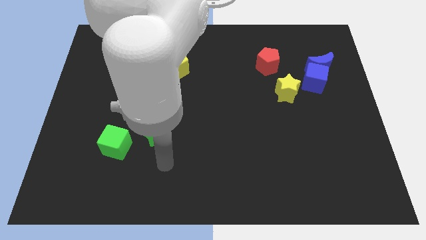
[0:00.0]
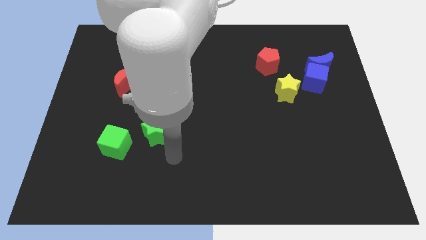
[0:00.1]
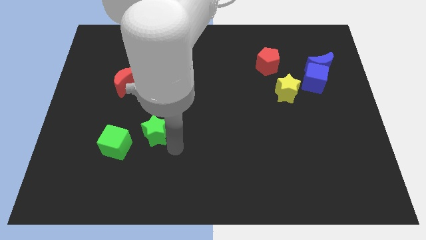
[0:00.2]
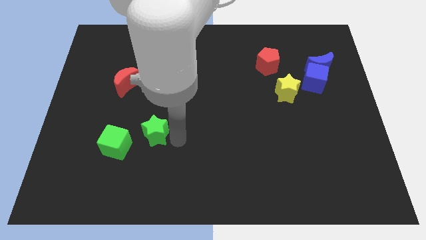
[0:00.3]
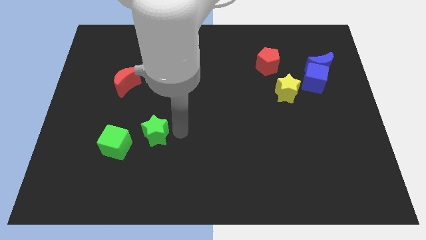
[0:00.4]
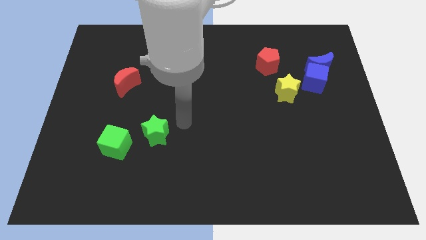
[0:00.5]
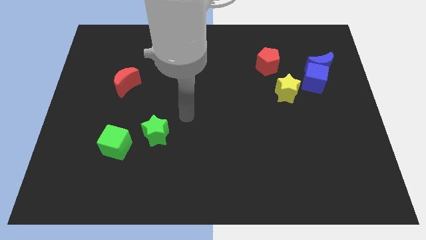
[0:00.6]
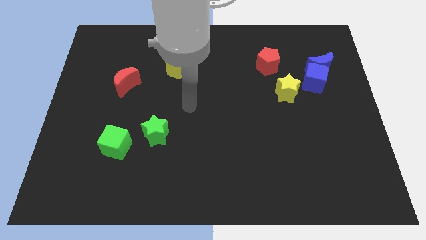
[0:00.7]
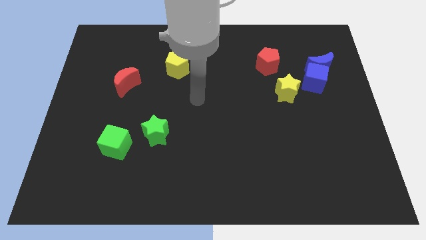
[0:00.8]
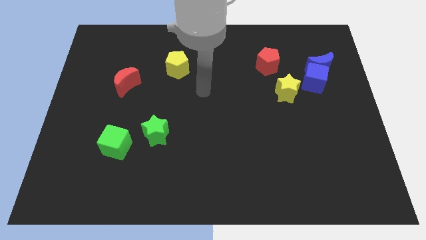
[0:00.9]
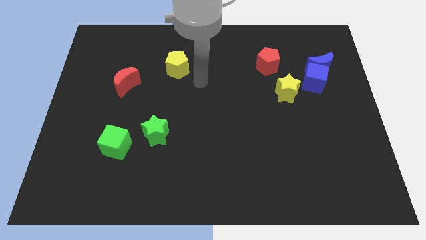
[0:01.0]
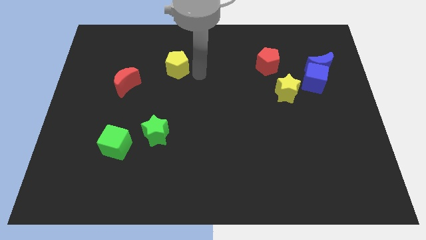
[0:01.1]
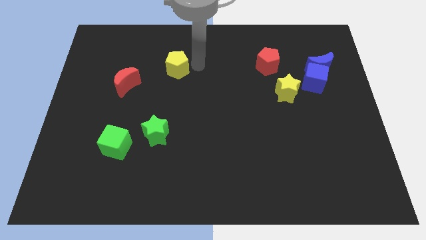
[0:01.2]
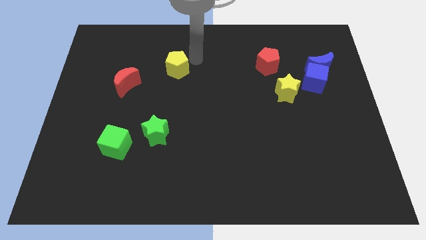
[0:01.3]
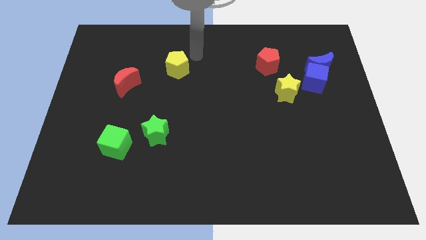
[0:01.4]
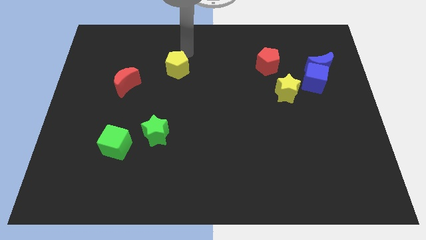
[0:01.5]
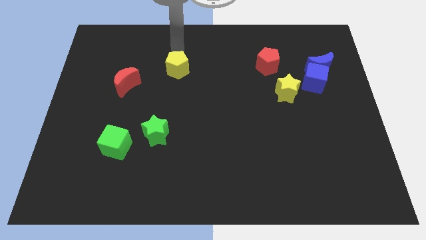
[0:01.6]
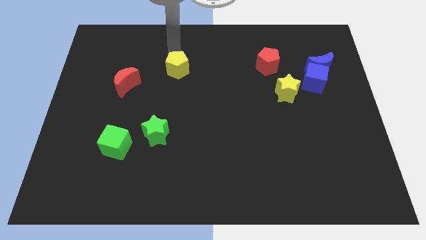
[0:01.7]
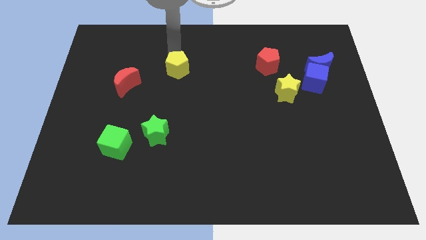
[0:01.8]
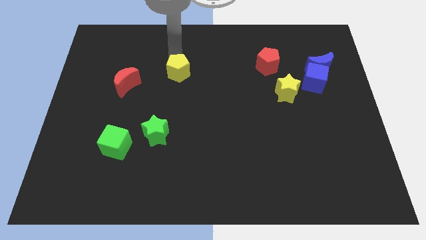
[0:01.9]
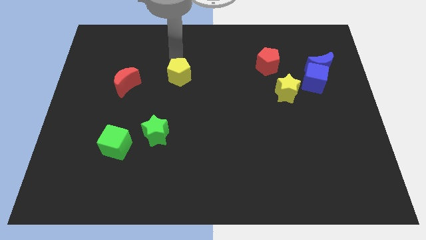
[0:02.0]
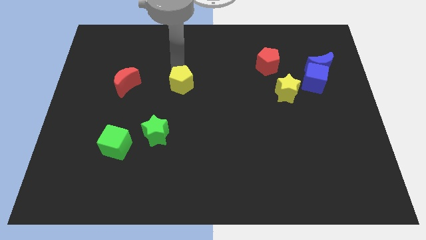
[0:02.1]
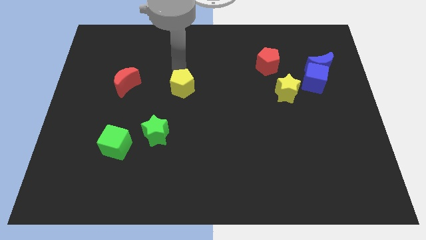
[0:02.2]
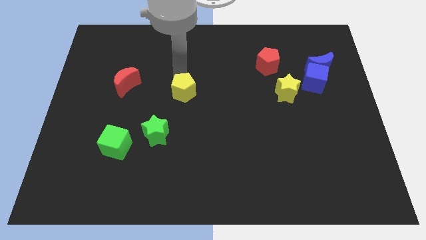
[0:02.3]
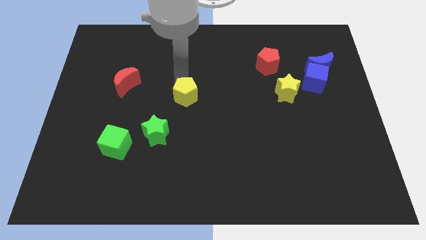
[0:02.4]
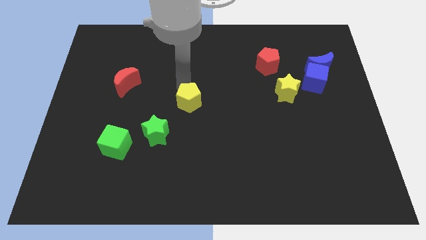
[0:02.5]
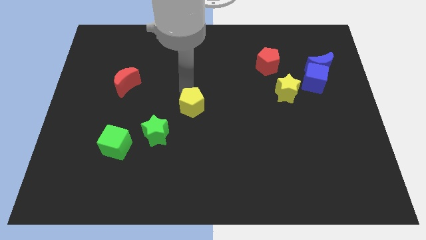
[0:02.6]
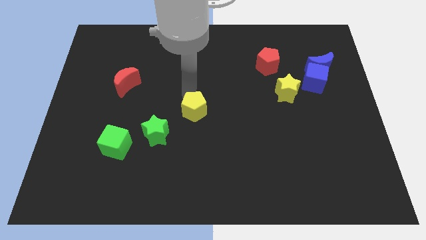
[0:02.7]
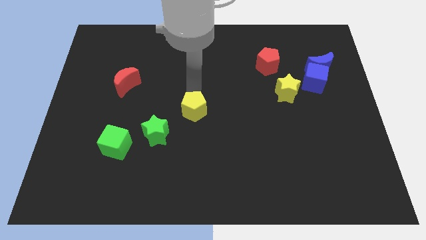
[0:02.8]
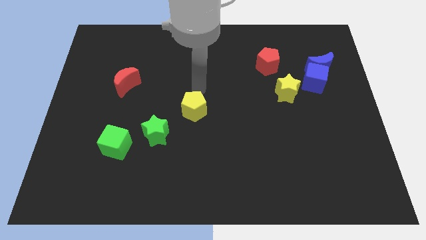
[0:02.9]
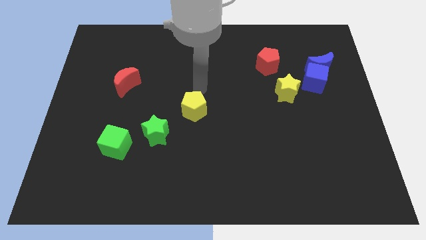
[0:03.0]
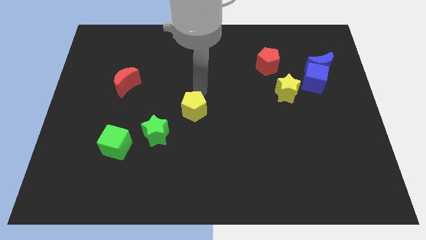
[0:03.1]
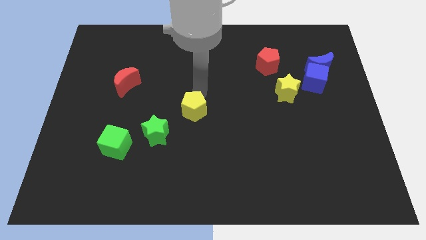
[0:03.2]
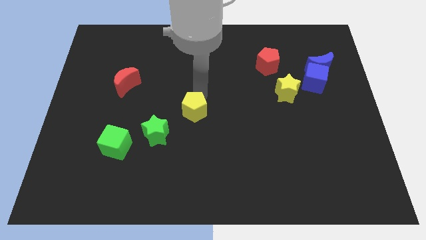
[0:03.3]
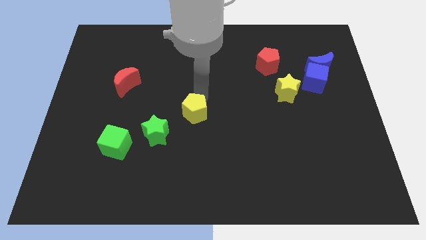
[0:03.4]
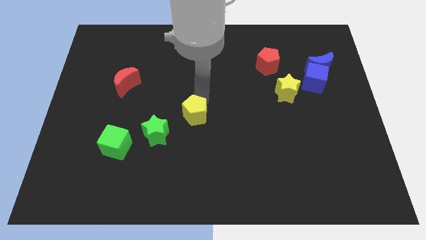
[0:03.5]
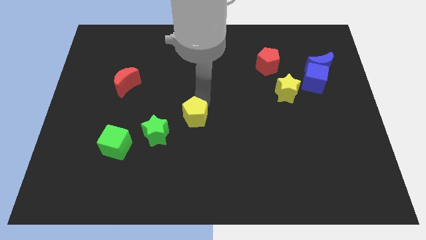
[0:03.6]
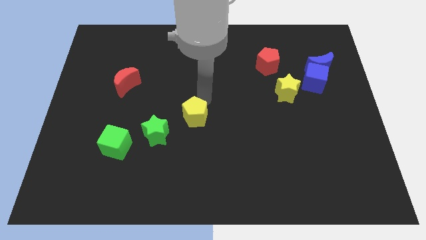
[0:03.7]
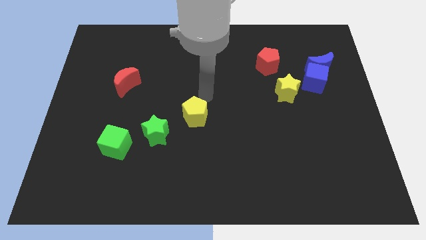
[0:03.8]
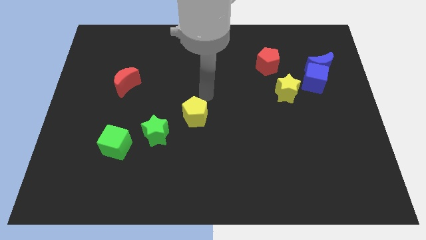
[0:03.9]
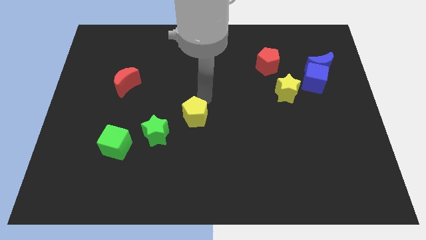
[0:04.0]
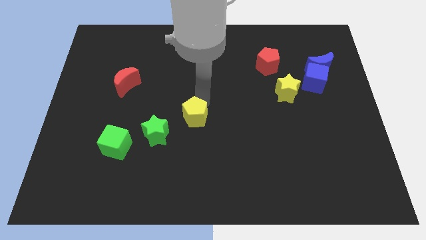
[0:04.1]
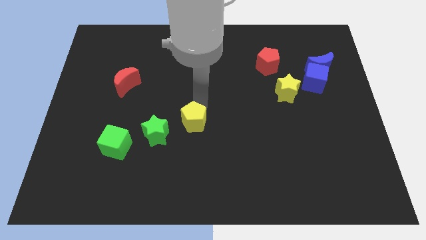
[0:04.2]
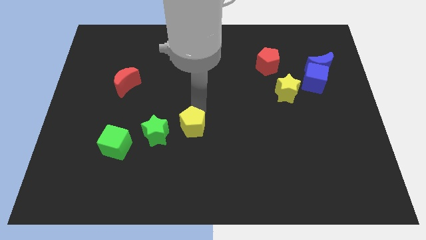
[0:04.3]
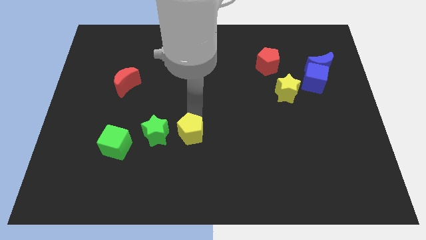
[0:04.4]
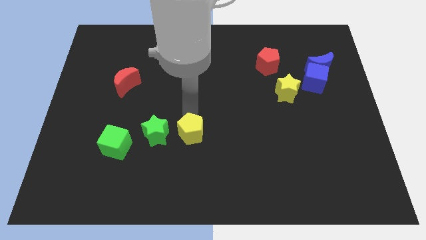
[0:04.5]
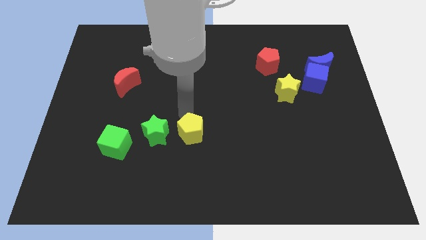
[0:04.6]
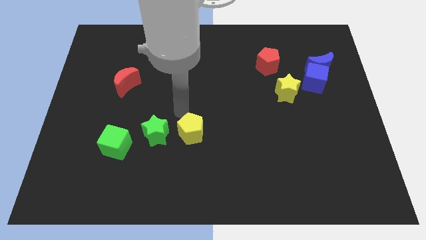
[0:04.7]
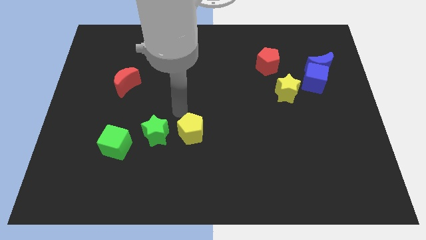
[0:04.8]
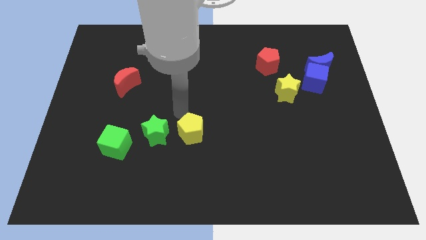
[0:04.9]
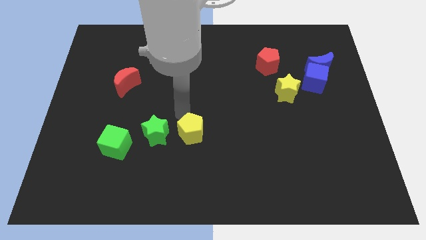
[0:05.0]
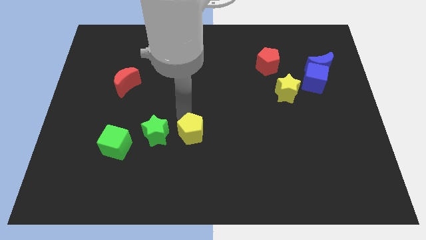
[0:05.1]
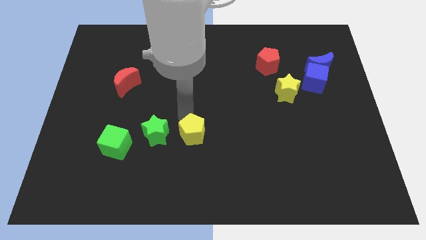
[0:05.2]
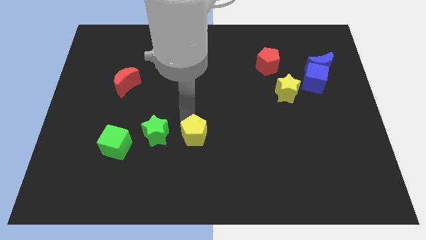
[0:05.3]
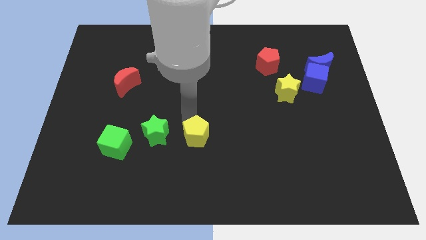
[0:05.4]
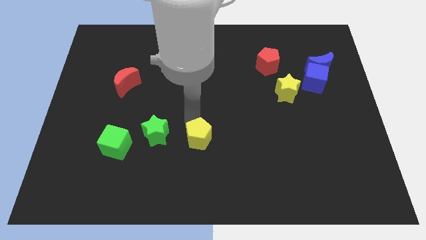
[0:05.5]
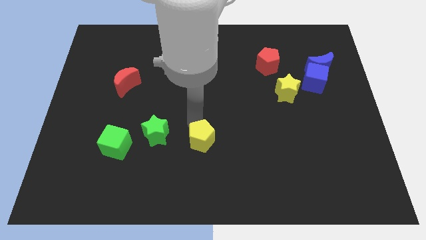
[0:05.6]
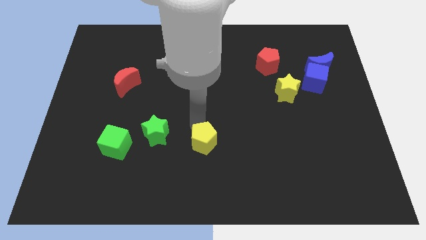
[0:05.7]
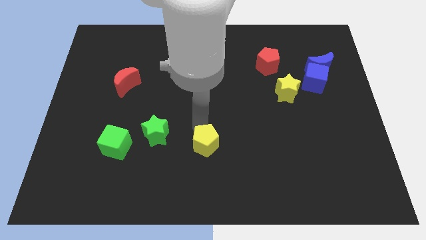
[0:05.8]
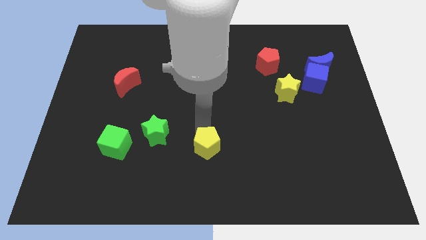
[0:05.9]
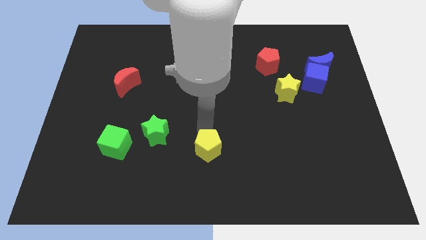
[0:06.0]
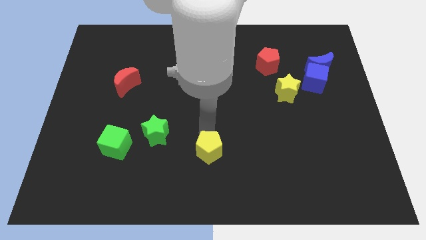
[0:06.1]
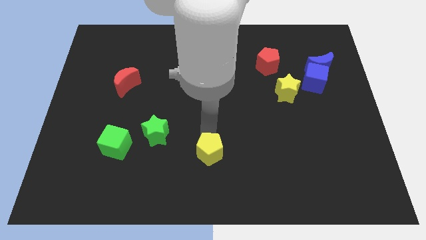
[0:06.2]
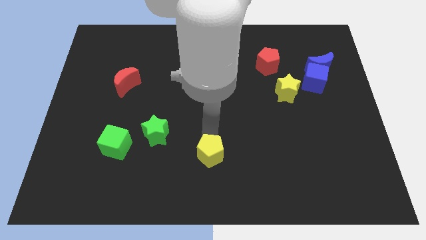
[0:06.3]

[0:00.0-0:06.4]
move the yellow pentagon to the bottom side

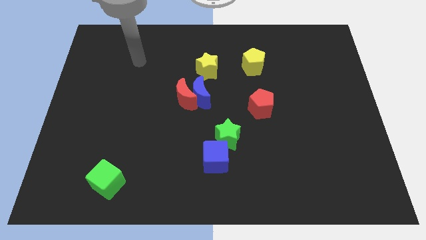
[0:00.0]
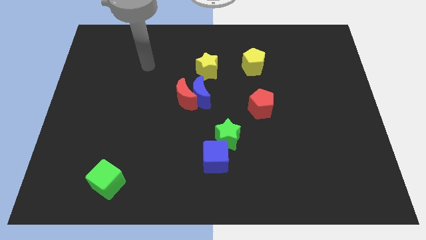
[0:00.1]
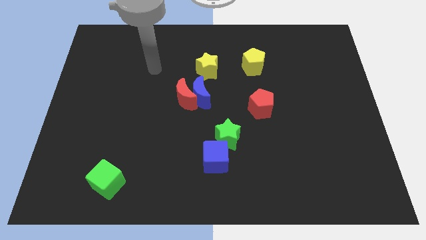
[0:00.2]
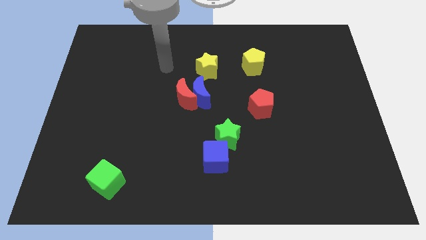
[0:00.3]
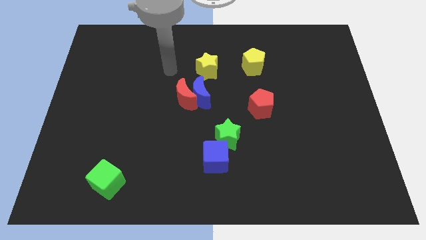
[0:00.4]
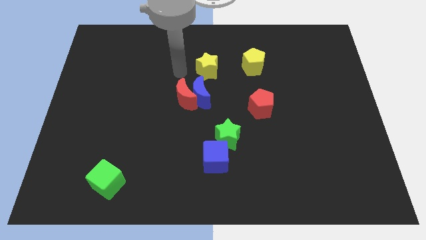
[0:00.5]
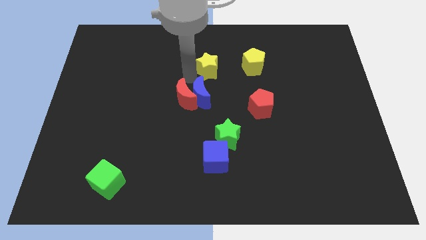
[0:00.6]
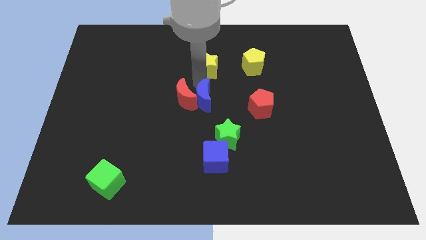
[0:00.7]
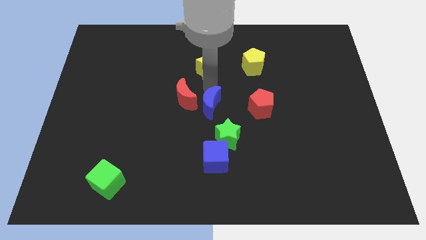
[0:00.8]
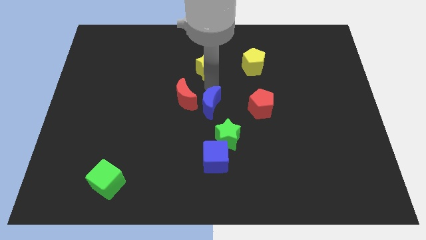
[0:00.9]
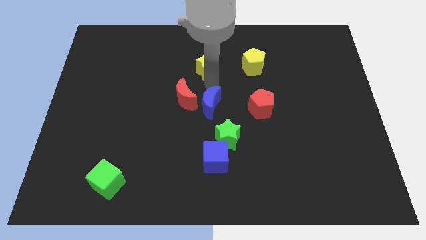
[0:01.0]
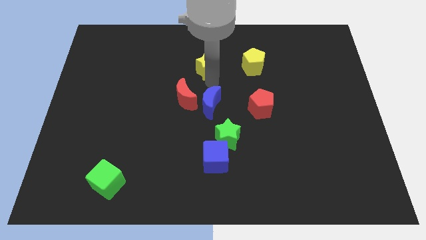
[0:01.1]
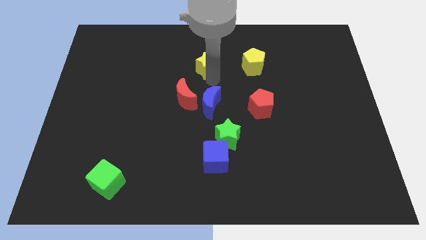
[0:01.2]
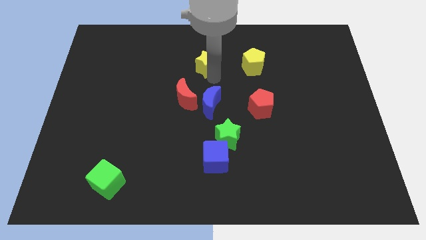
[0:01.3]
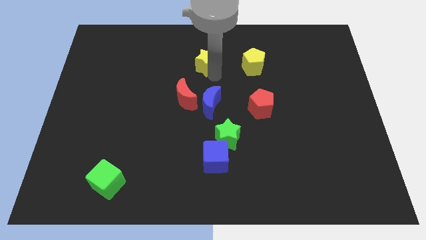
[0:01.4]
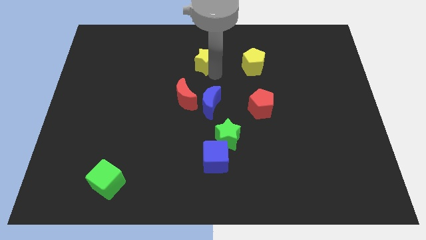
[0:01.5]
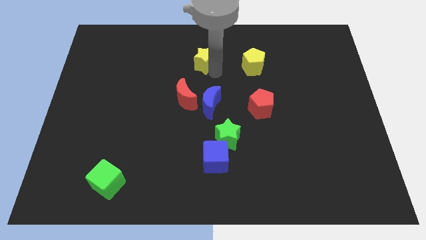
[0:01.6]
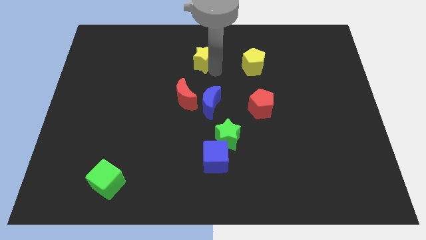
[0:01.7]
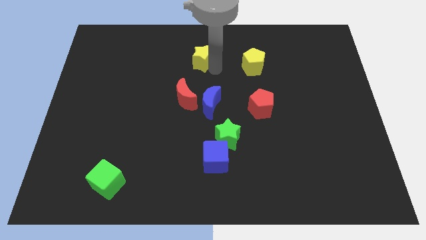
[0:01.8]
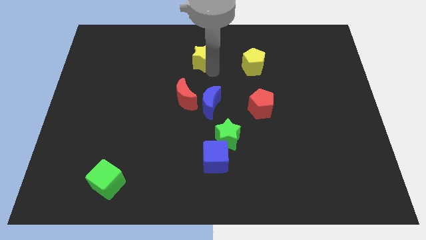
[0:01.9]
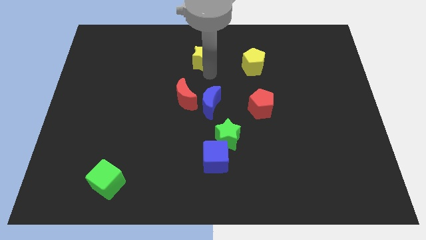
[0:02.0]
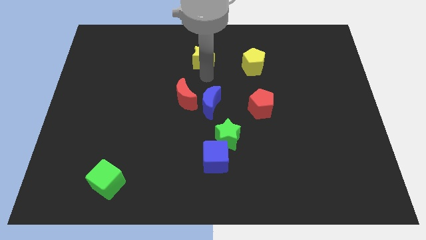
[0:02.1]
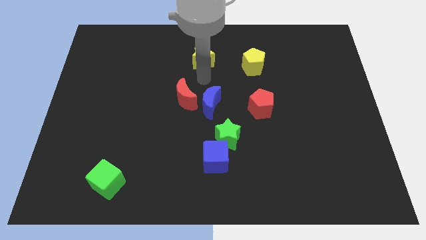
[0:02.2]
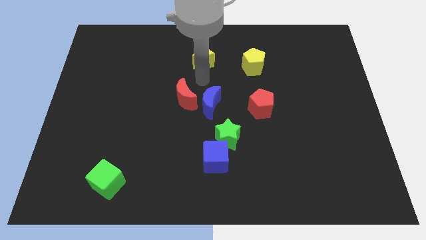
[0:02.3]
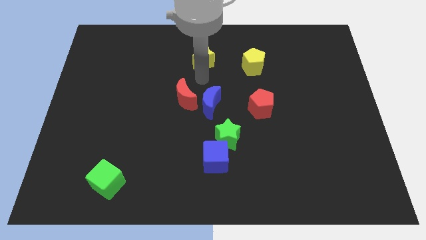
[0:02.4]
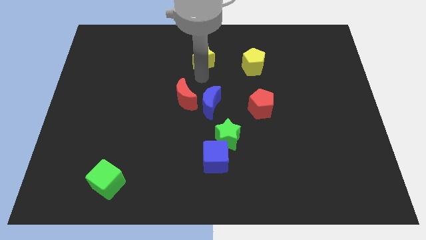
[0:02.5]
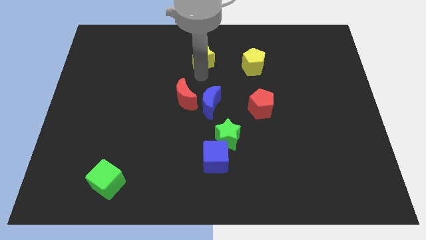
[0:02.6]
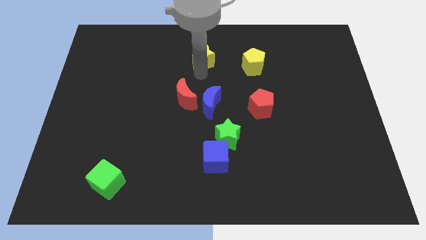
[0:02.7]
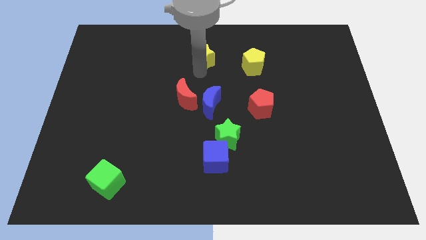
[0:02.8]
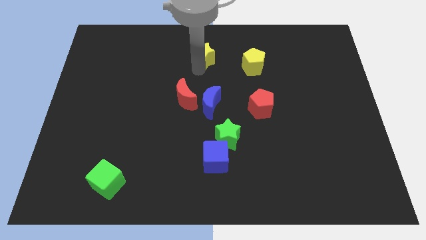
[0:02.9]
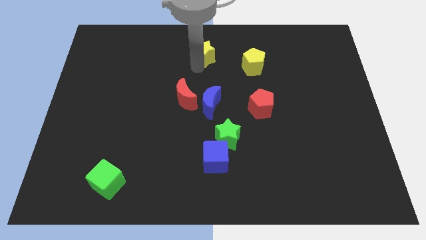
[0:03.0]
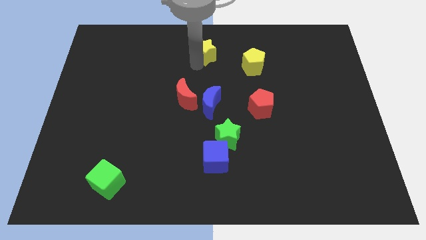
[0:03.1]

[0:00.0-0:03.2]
slide the yellow star to the top
